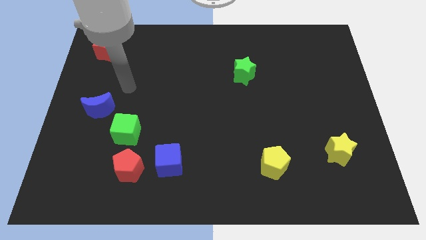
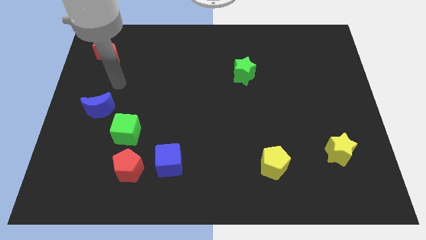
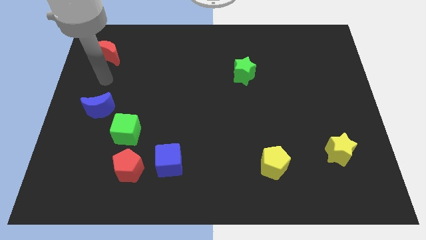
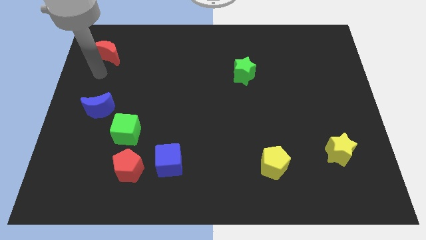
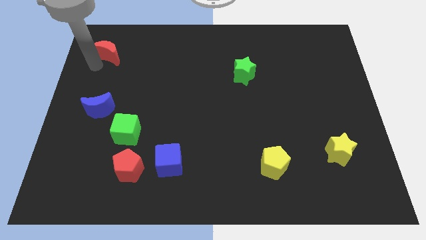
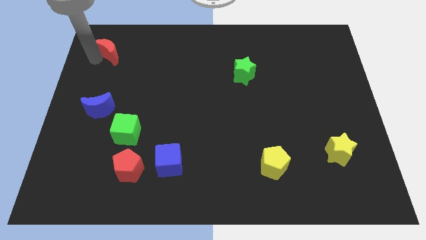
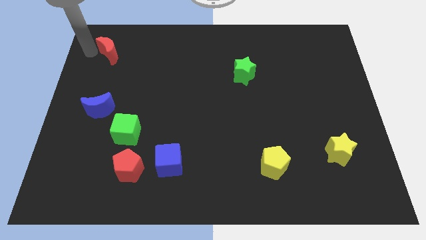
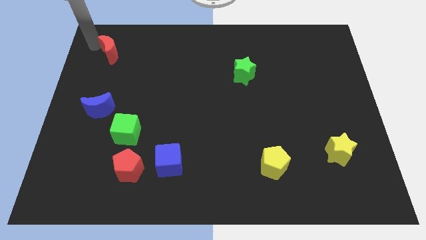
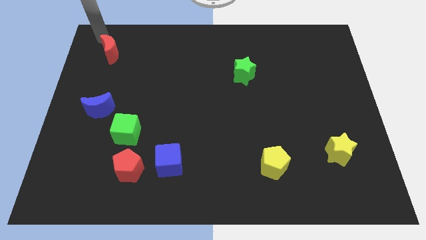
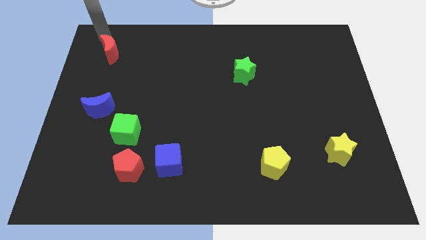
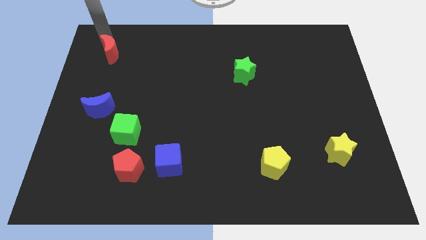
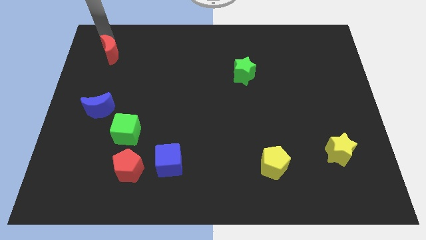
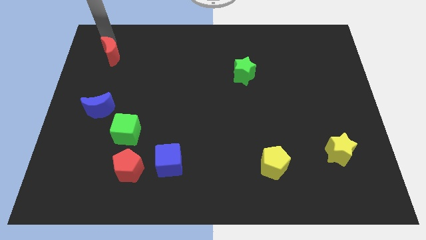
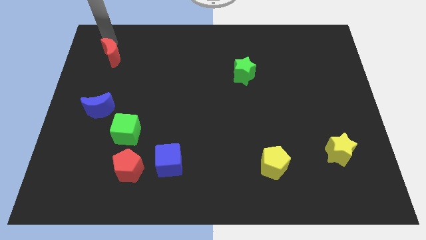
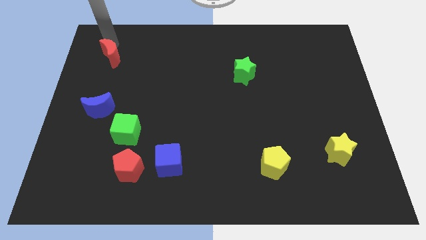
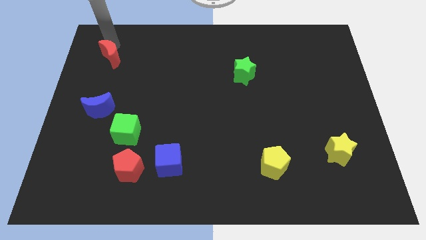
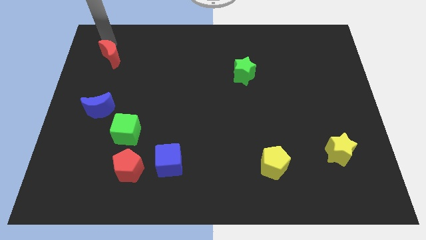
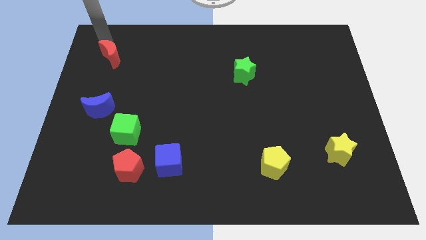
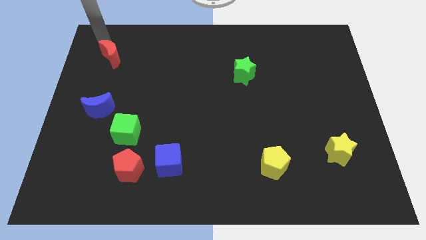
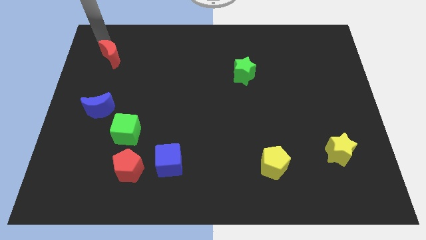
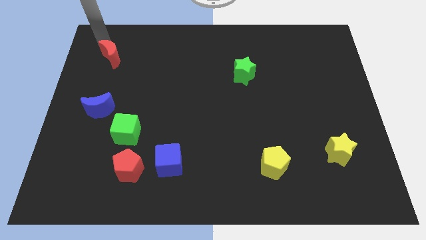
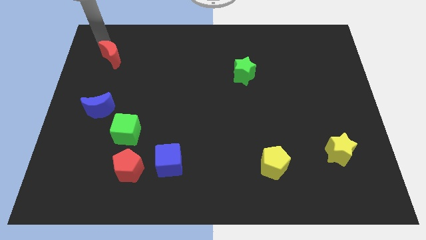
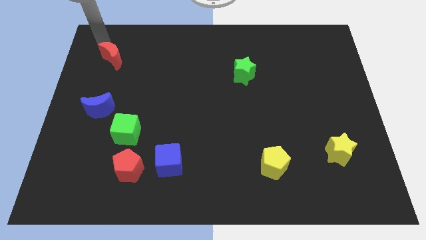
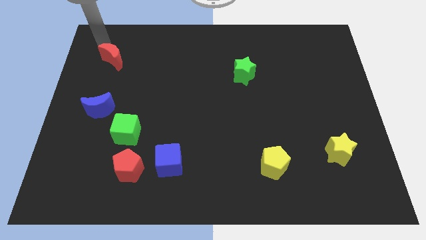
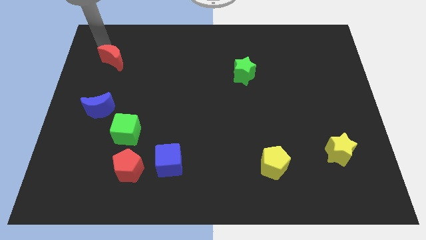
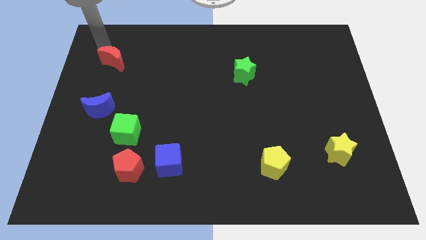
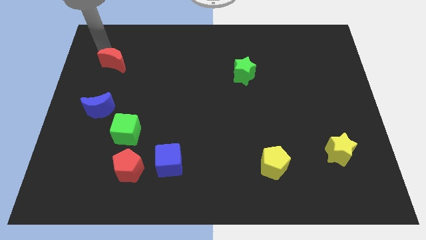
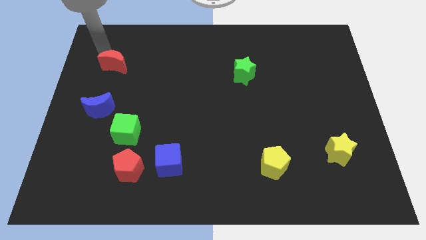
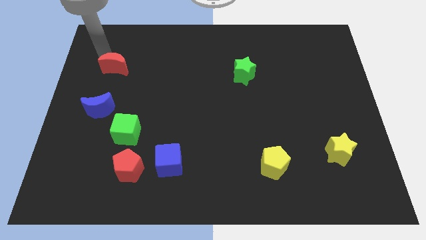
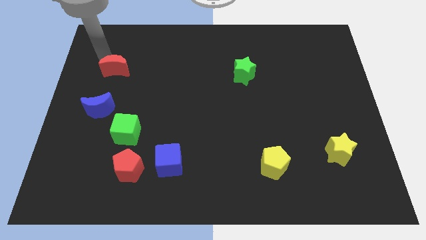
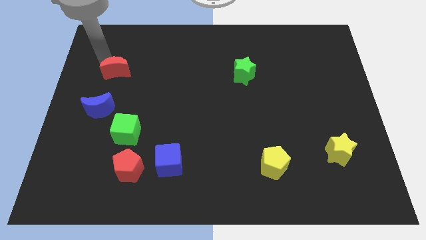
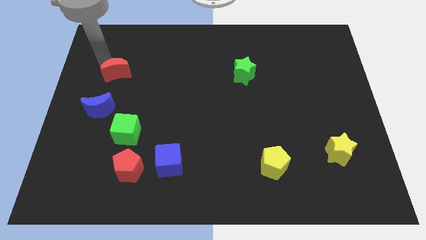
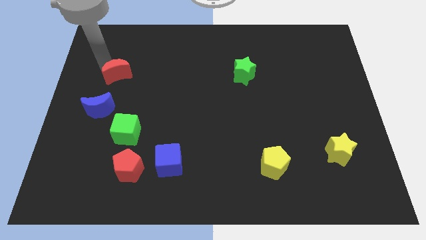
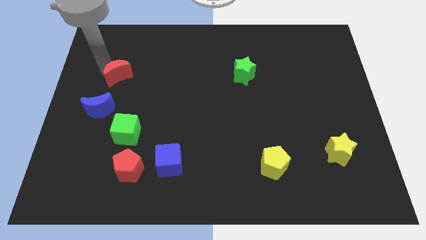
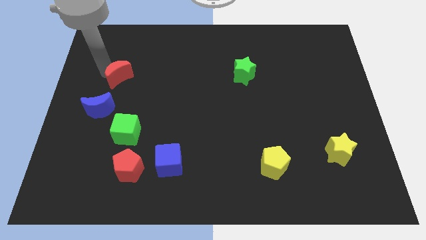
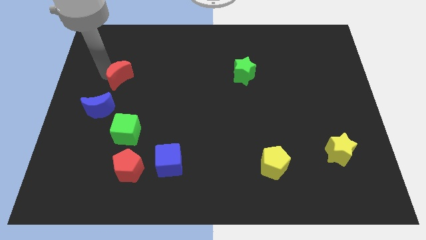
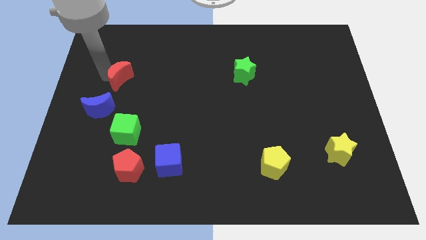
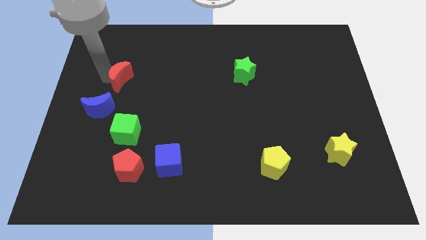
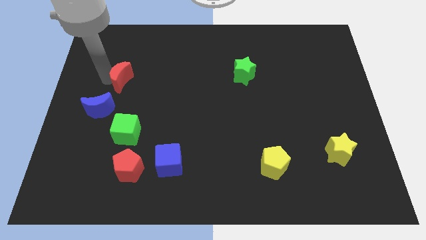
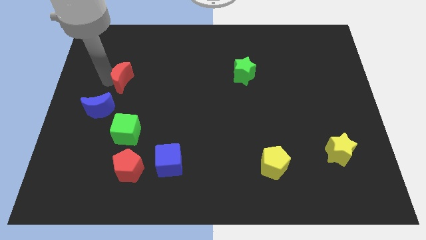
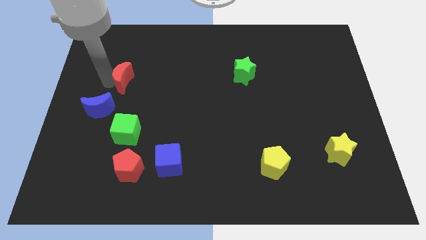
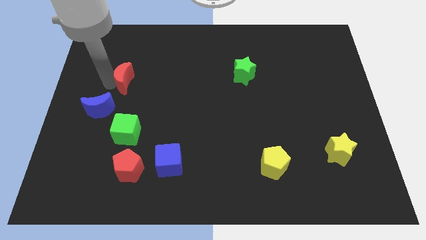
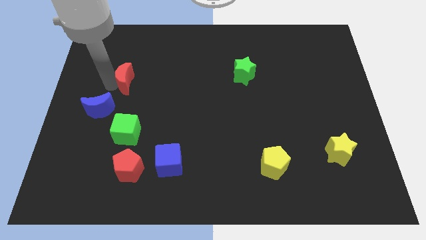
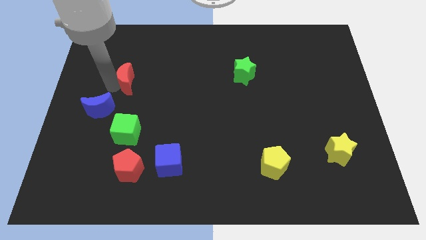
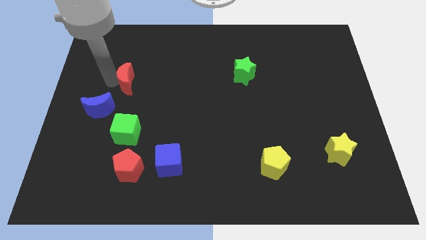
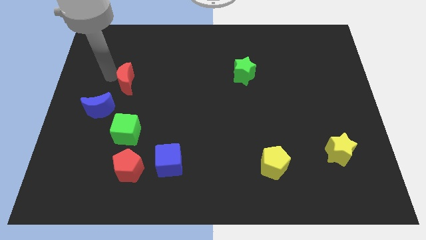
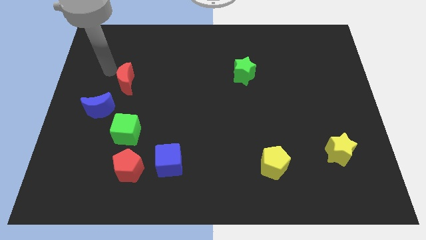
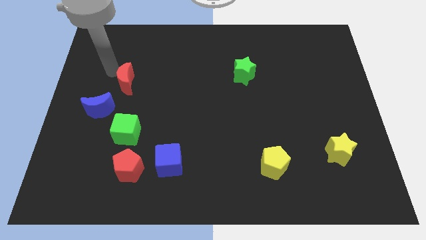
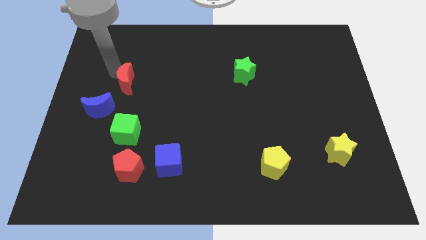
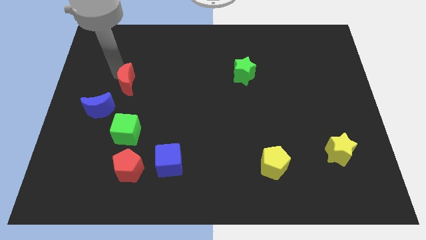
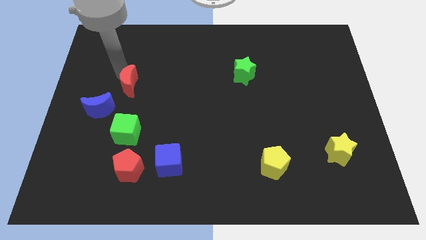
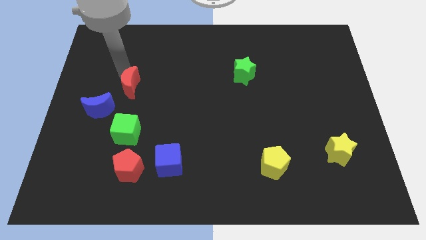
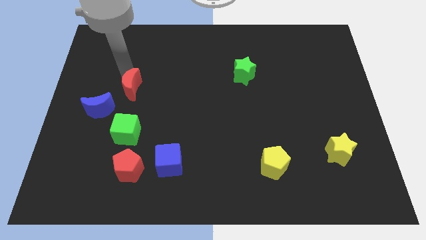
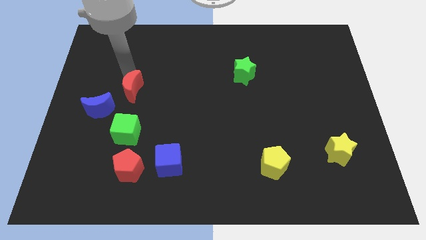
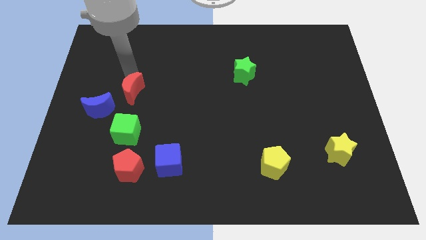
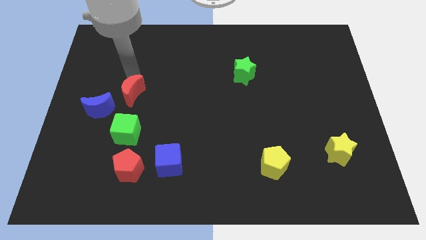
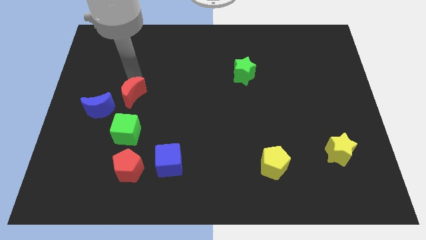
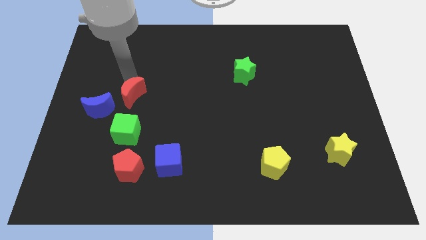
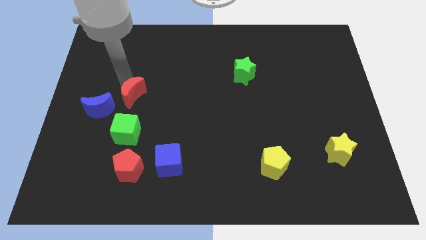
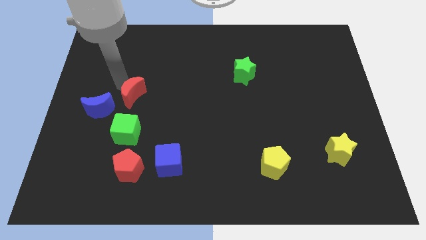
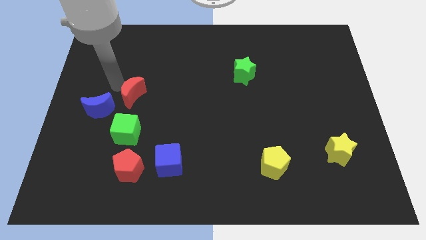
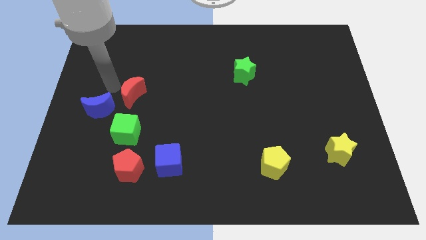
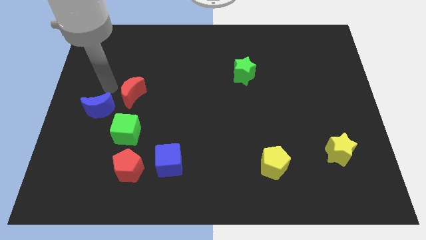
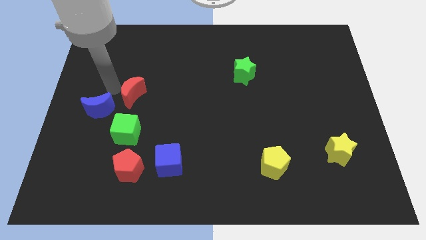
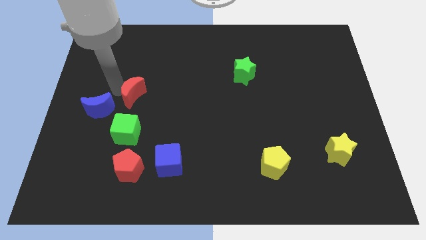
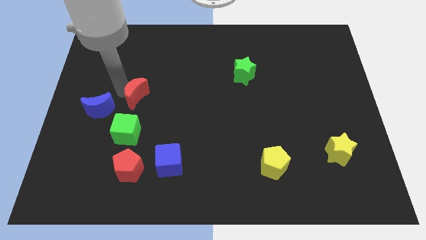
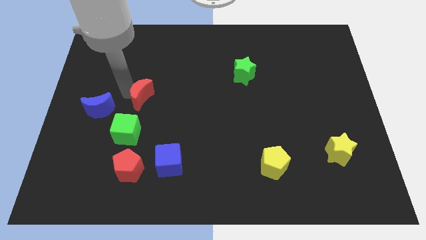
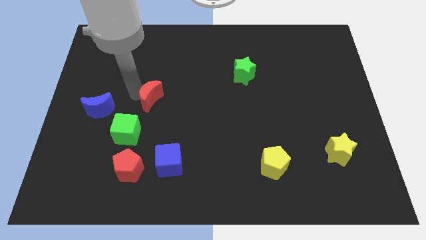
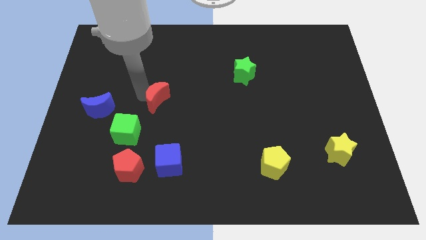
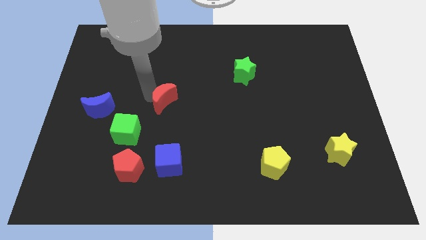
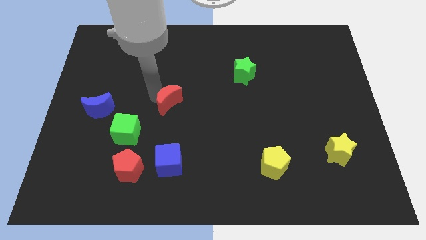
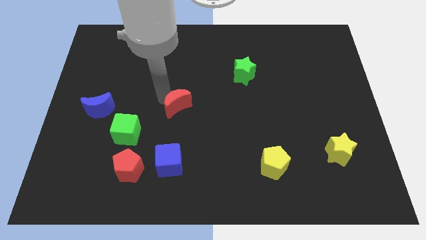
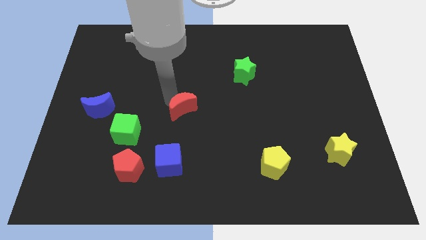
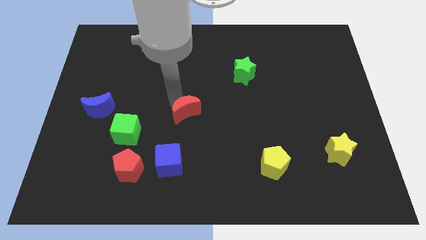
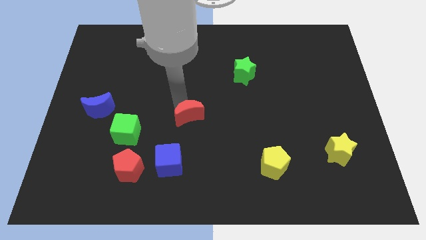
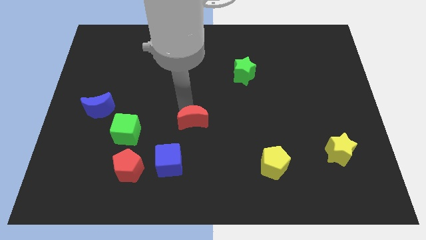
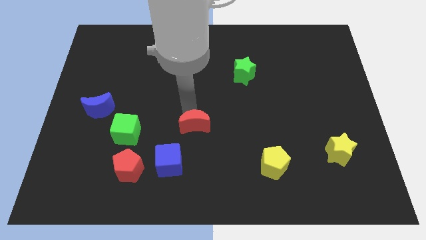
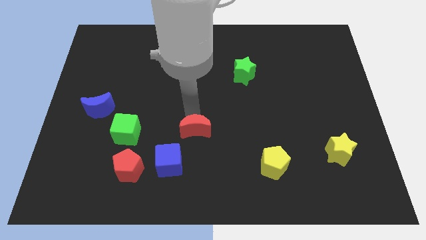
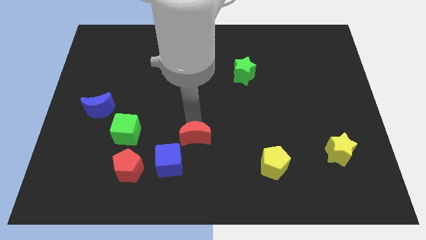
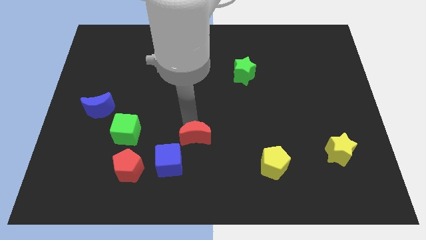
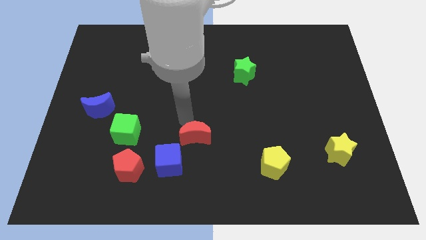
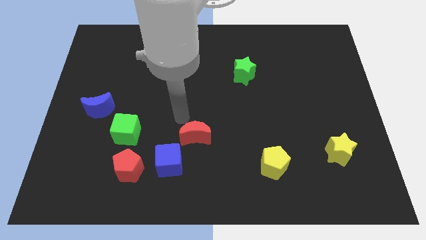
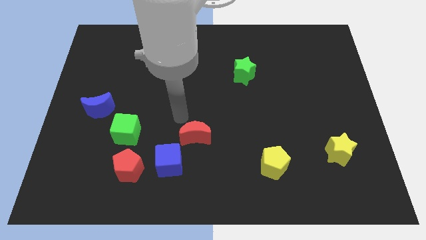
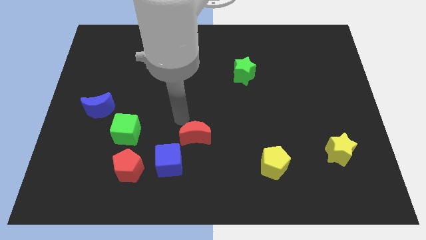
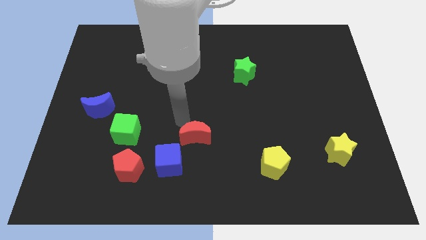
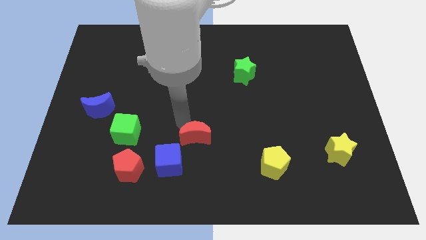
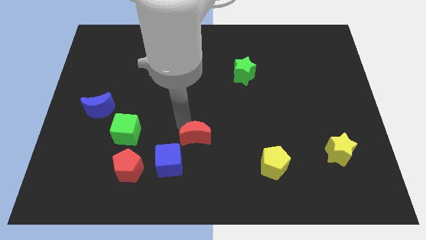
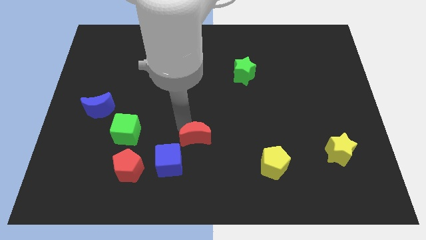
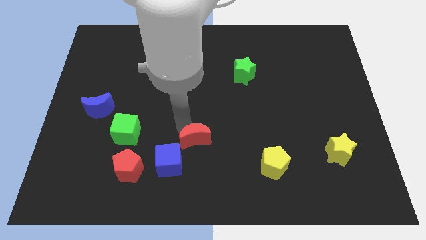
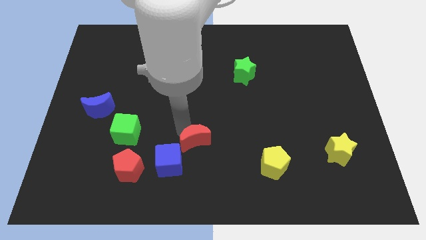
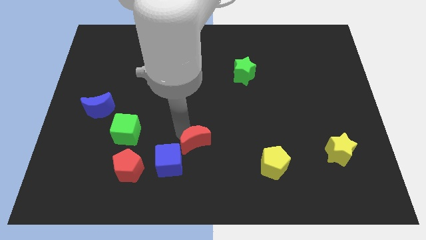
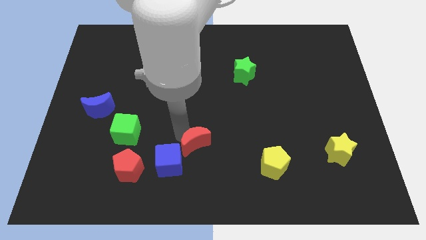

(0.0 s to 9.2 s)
slide the red moon right of the blue cube
